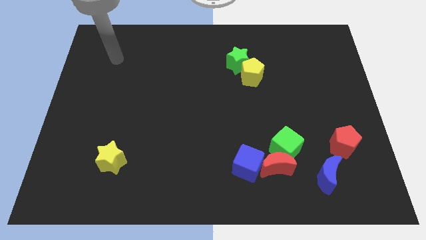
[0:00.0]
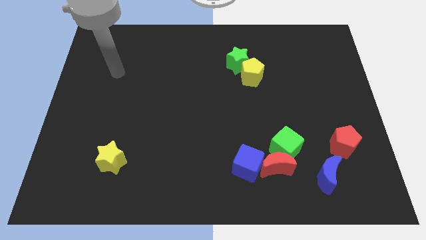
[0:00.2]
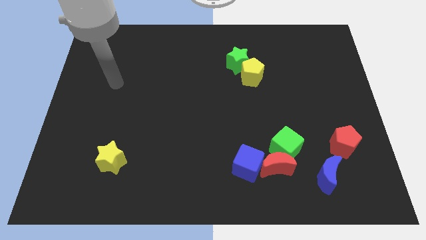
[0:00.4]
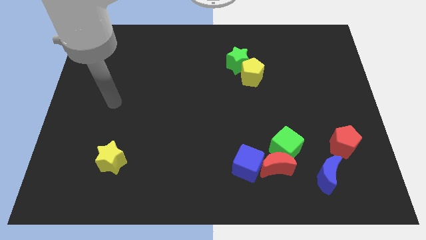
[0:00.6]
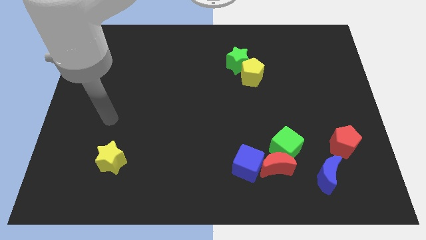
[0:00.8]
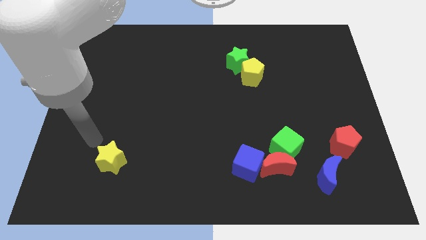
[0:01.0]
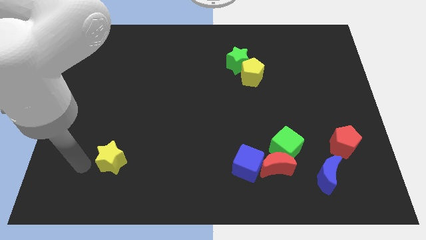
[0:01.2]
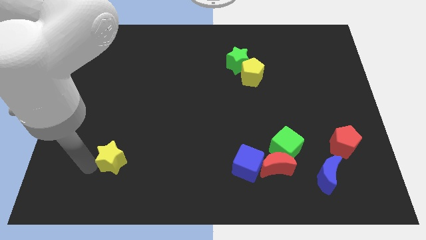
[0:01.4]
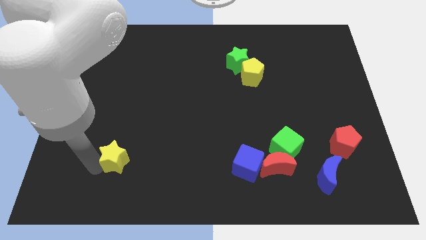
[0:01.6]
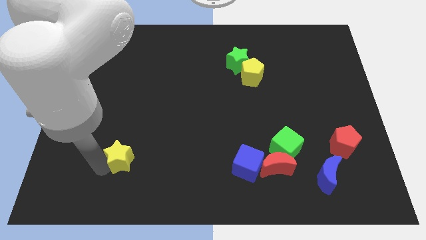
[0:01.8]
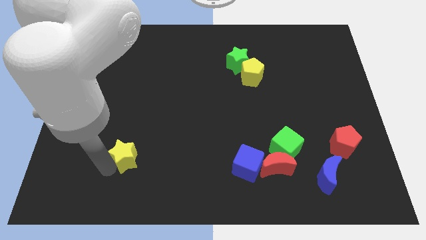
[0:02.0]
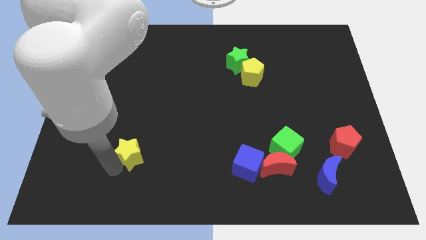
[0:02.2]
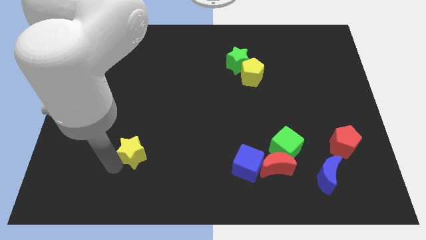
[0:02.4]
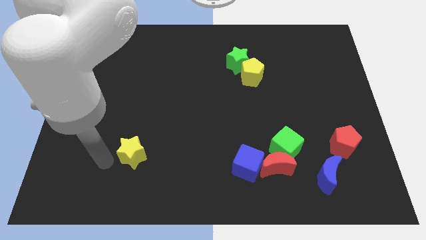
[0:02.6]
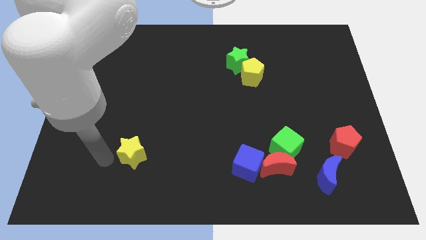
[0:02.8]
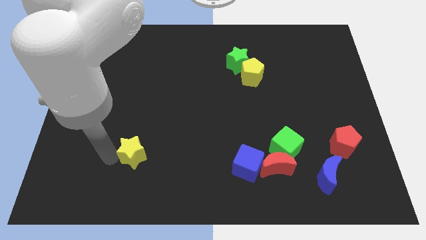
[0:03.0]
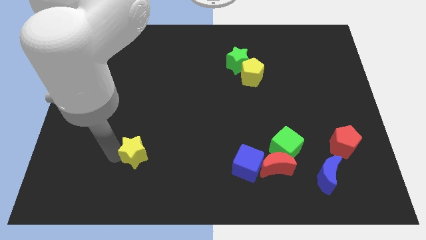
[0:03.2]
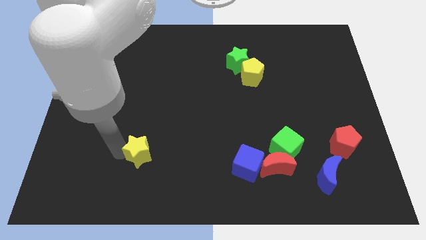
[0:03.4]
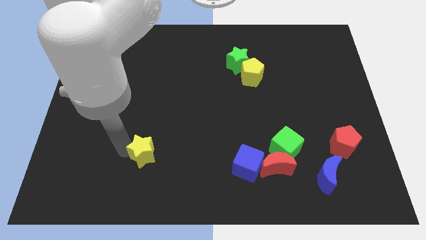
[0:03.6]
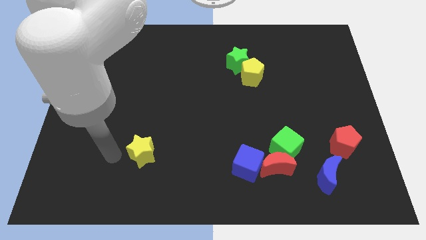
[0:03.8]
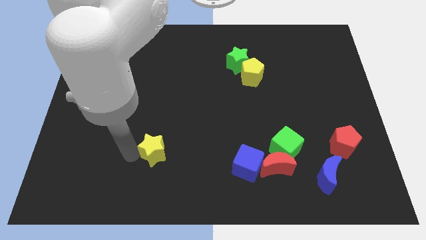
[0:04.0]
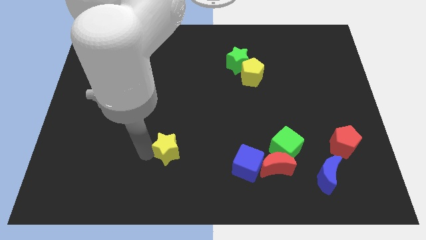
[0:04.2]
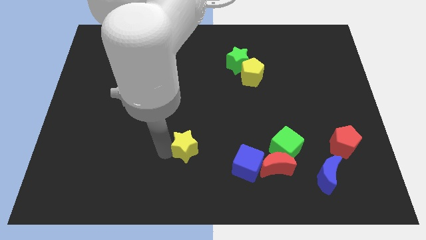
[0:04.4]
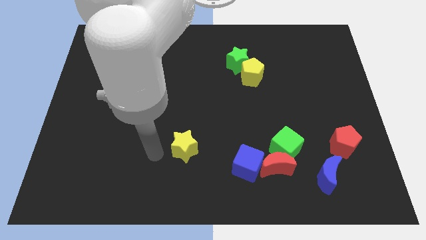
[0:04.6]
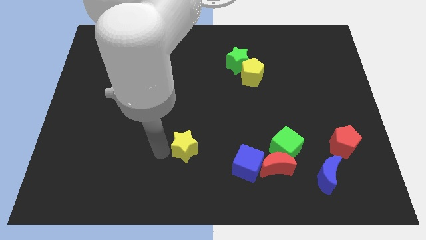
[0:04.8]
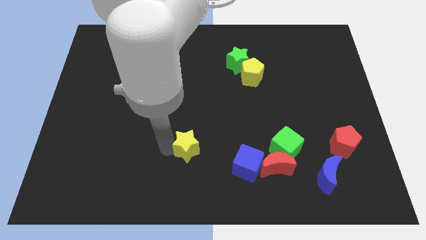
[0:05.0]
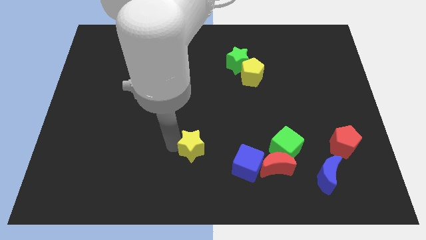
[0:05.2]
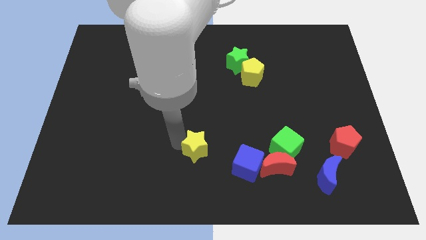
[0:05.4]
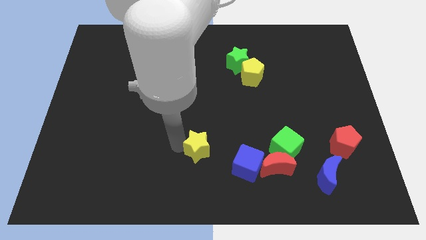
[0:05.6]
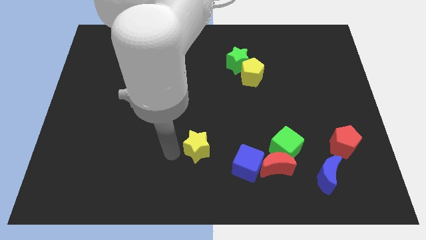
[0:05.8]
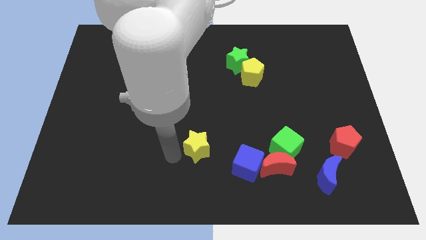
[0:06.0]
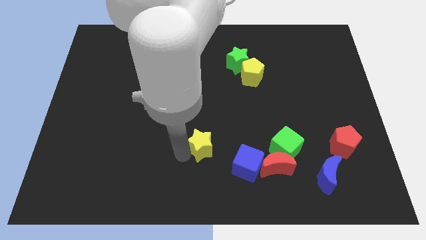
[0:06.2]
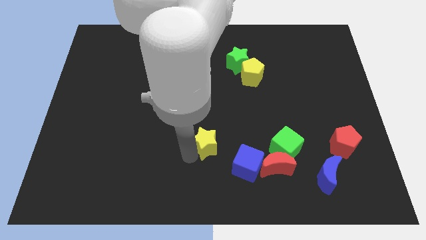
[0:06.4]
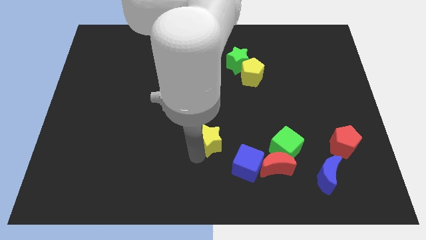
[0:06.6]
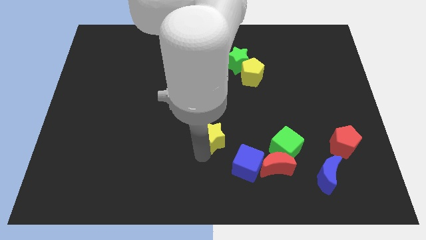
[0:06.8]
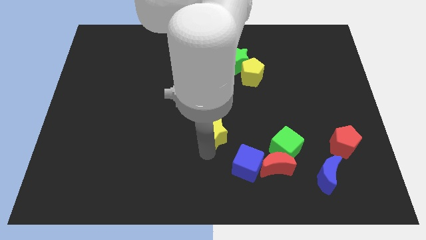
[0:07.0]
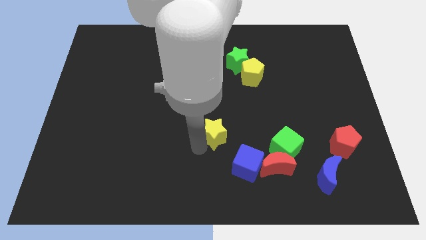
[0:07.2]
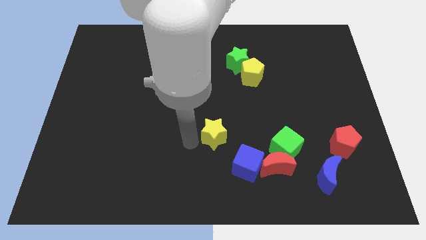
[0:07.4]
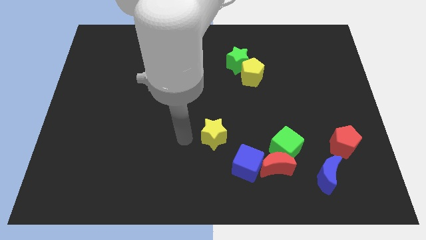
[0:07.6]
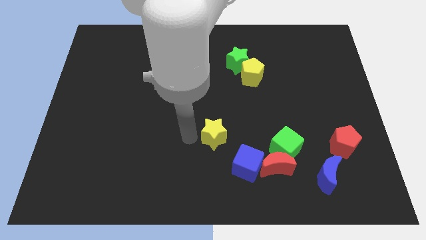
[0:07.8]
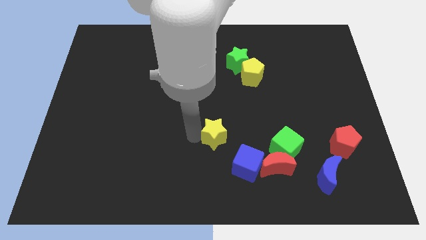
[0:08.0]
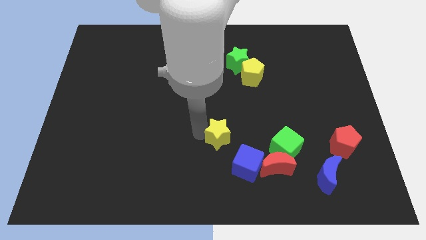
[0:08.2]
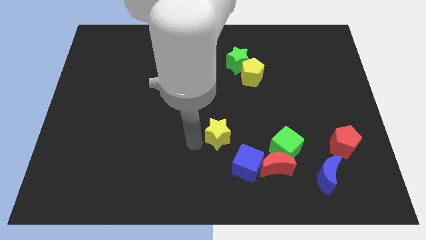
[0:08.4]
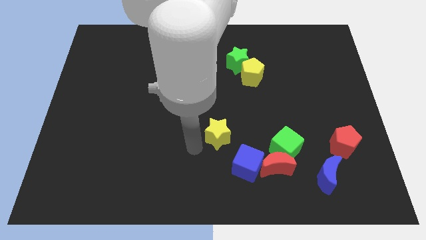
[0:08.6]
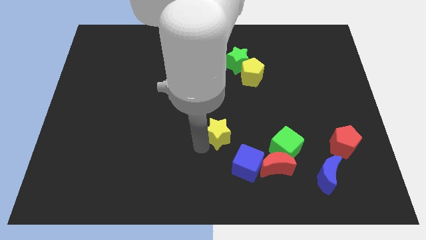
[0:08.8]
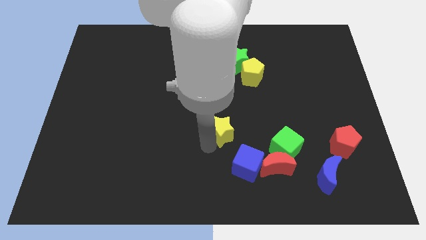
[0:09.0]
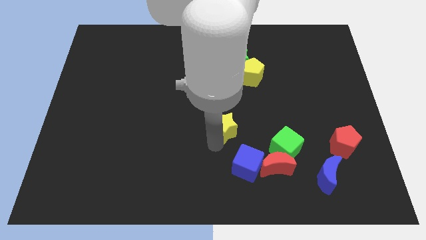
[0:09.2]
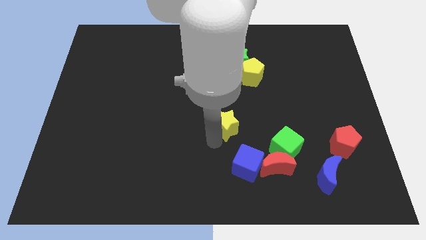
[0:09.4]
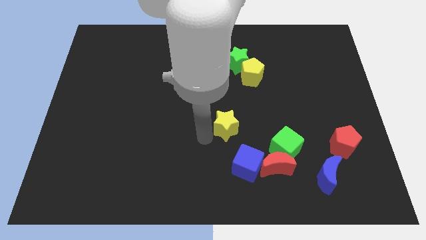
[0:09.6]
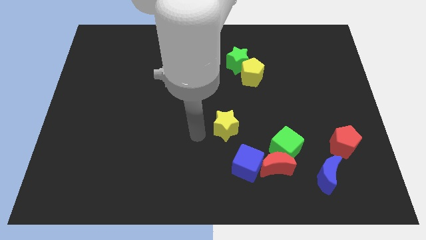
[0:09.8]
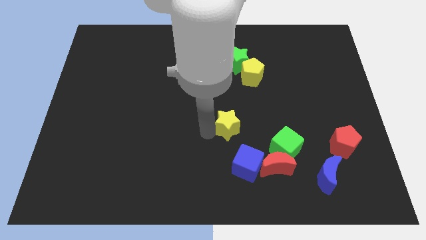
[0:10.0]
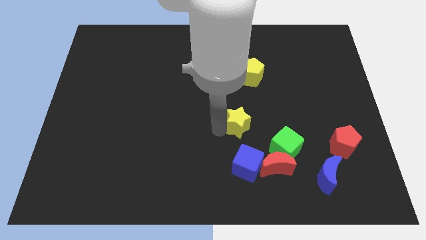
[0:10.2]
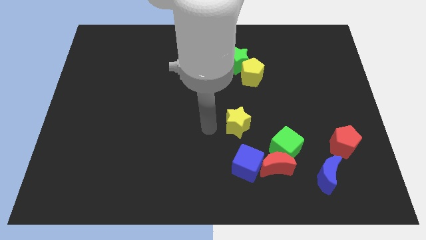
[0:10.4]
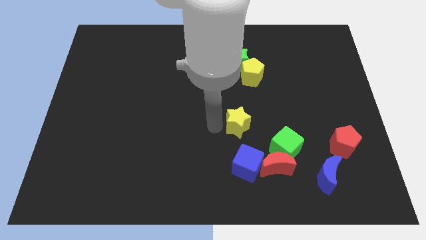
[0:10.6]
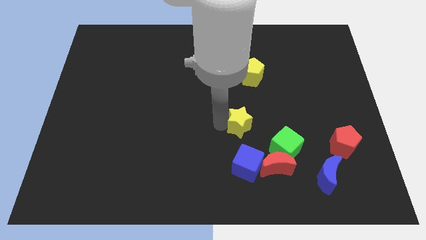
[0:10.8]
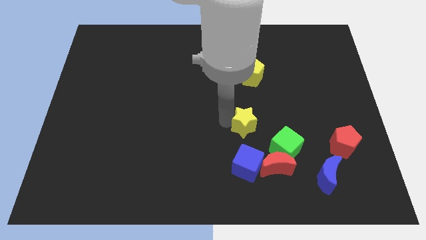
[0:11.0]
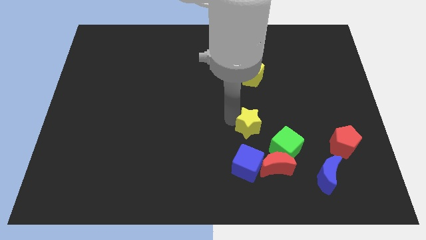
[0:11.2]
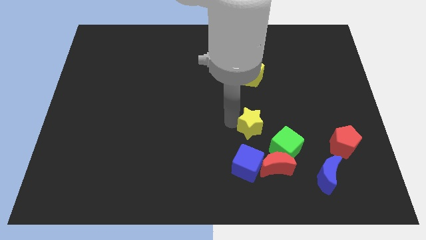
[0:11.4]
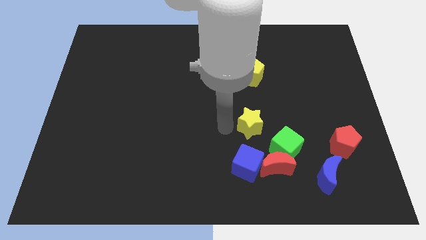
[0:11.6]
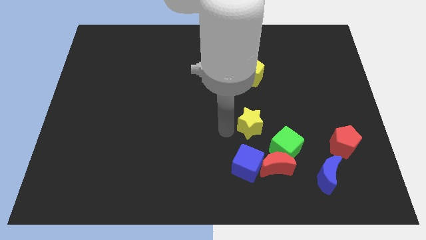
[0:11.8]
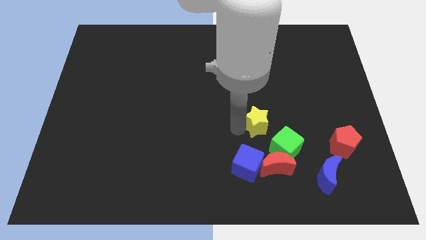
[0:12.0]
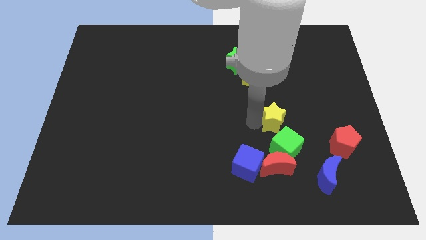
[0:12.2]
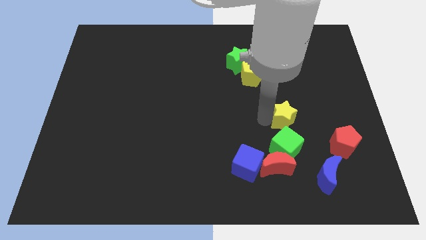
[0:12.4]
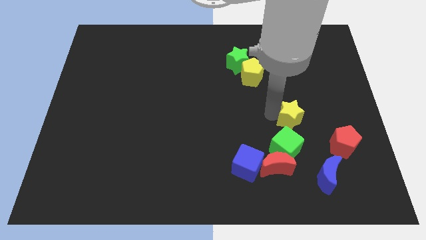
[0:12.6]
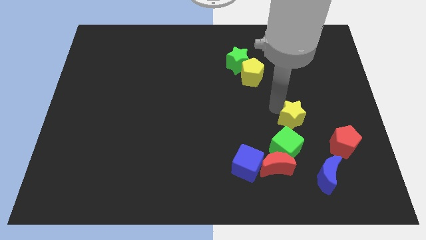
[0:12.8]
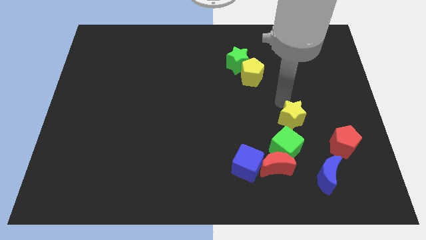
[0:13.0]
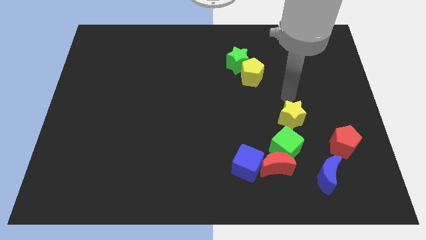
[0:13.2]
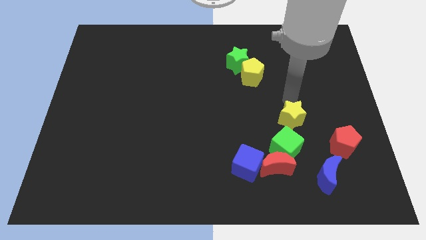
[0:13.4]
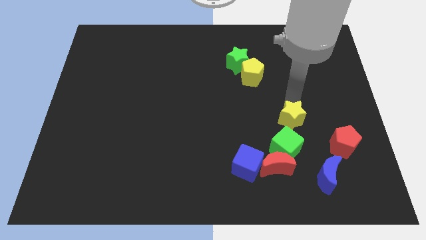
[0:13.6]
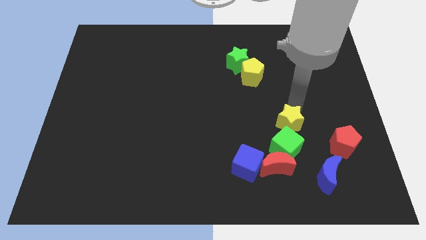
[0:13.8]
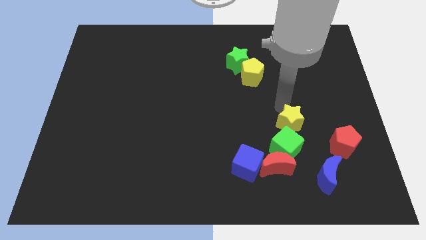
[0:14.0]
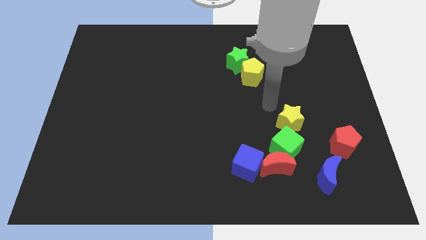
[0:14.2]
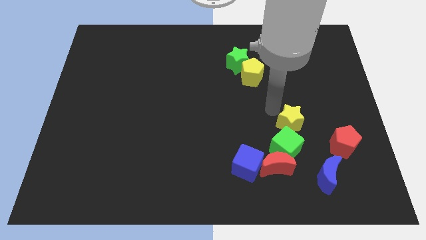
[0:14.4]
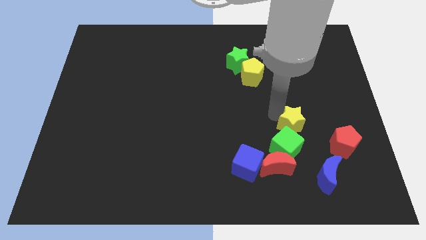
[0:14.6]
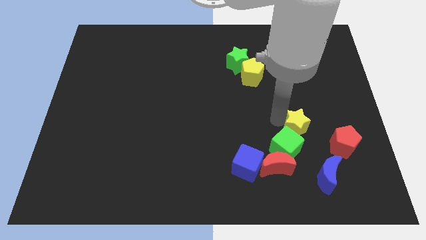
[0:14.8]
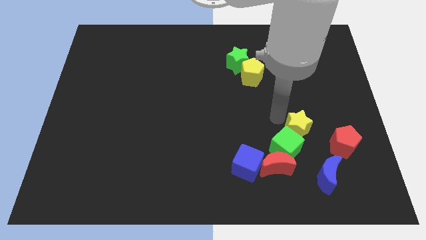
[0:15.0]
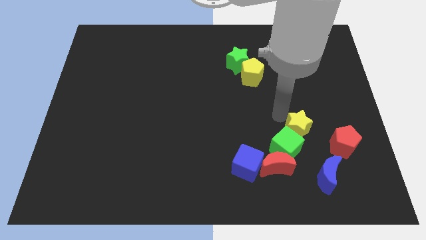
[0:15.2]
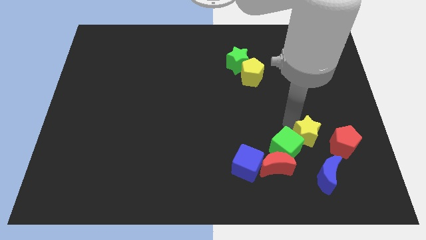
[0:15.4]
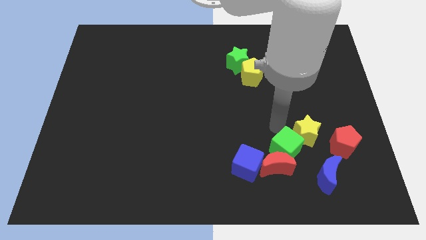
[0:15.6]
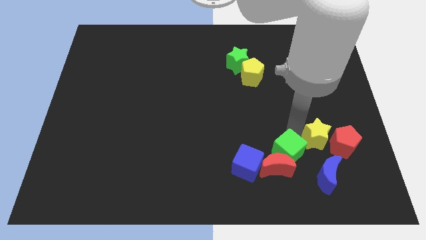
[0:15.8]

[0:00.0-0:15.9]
put the yellow star close to the red pentagon
